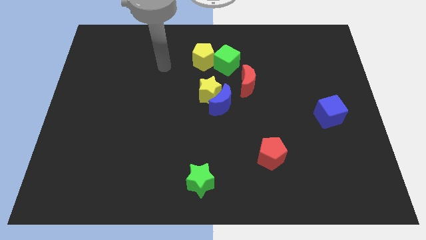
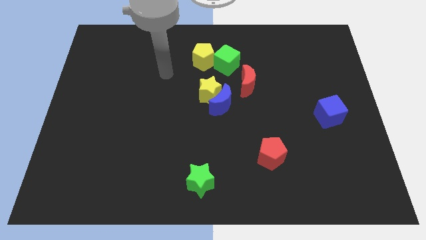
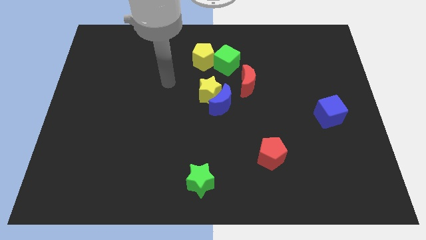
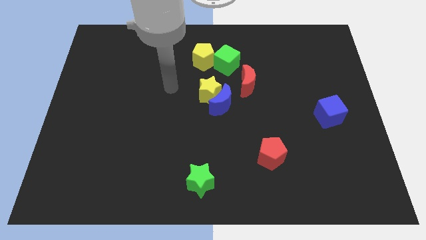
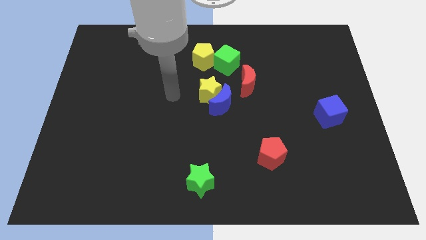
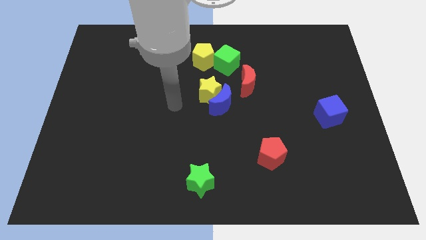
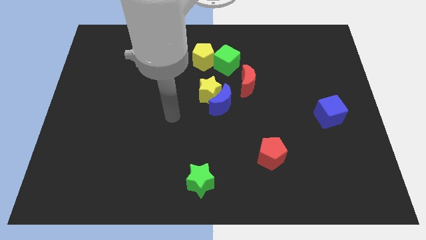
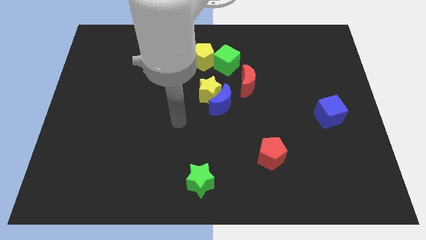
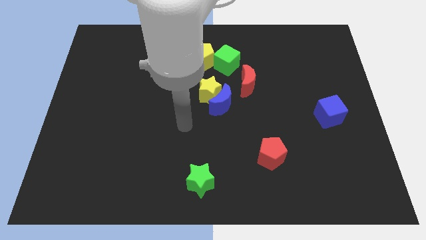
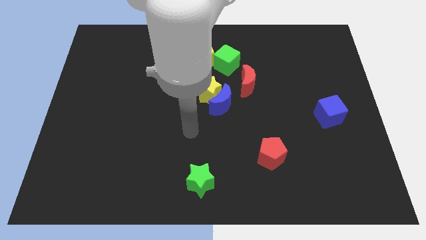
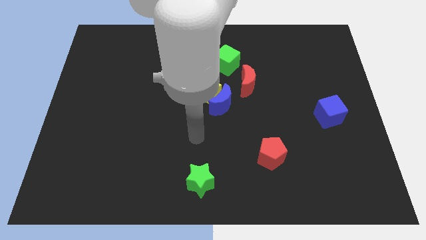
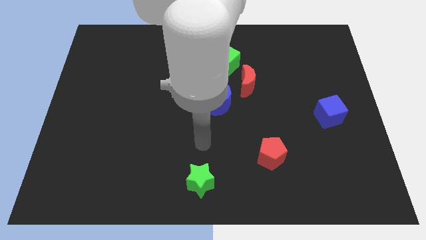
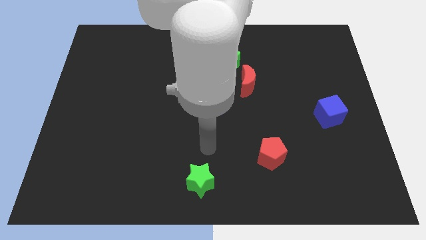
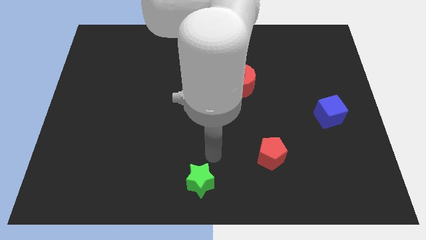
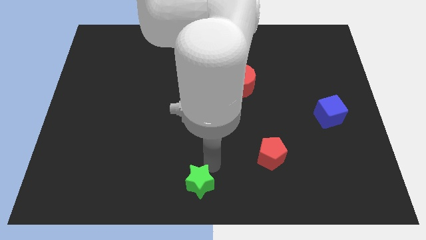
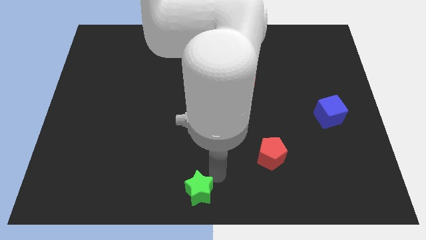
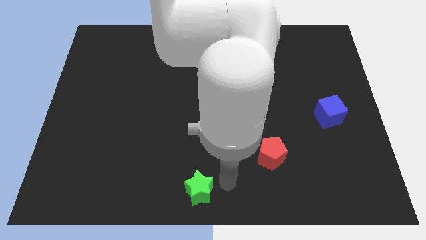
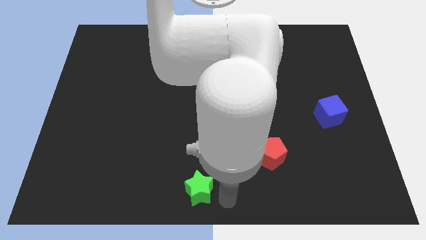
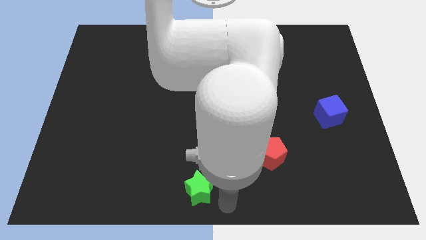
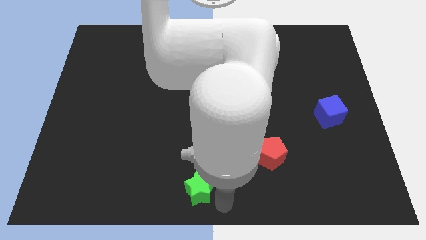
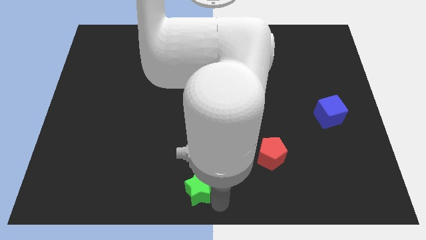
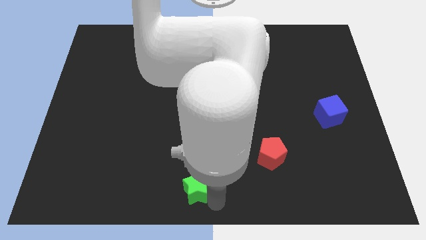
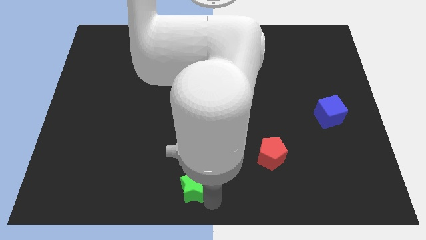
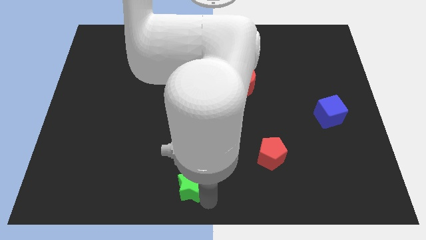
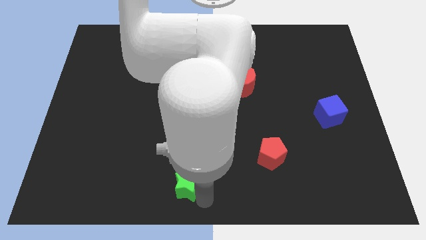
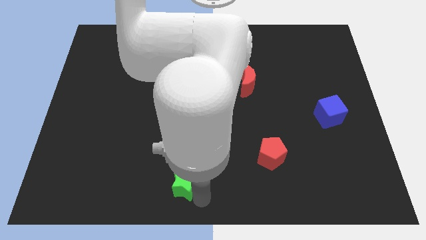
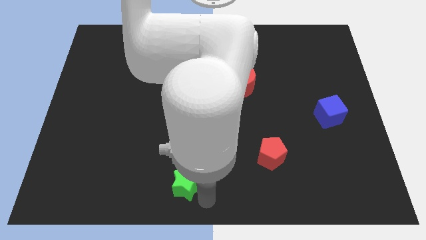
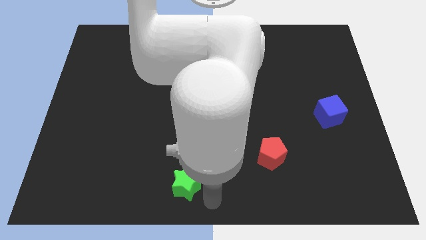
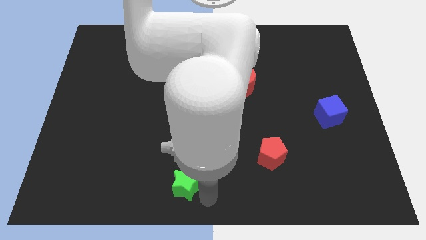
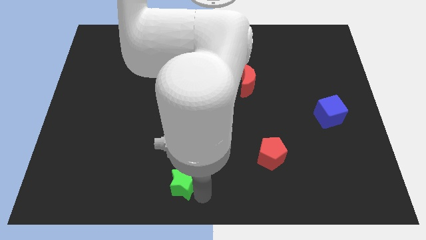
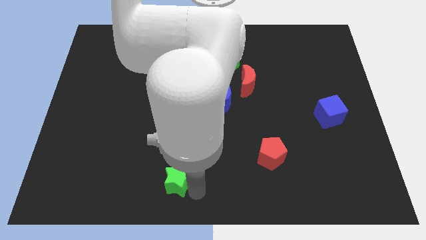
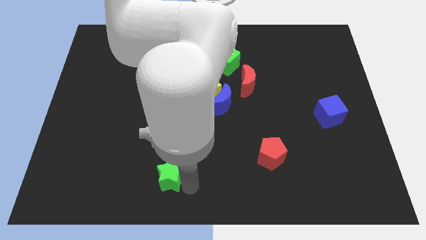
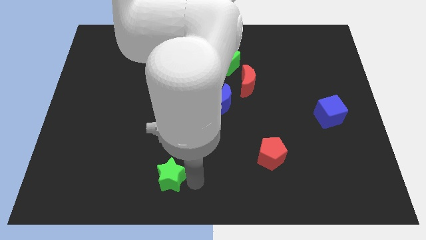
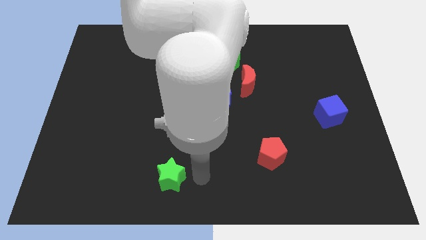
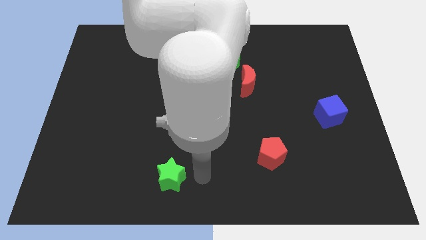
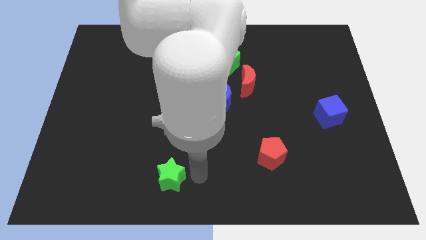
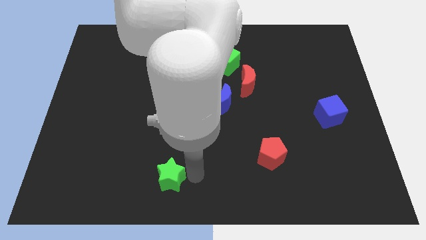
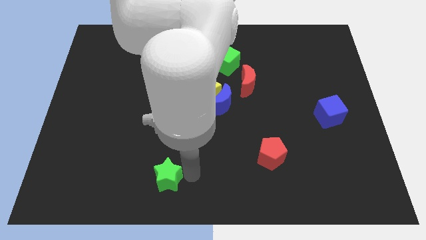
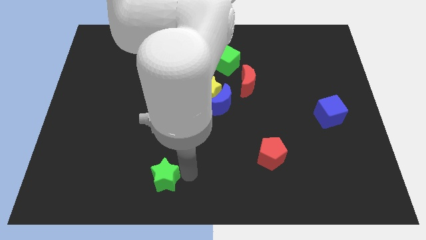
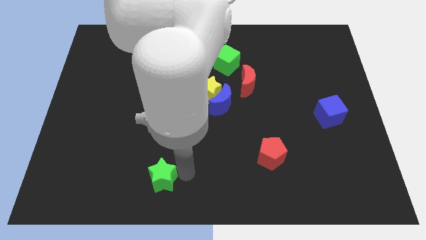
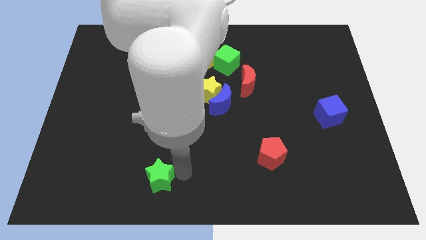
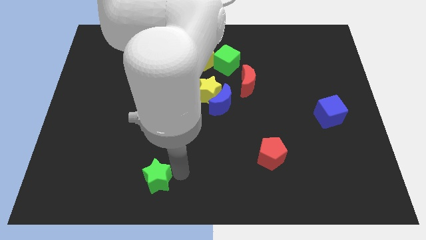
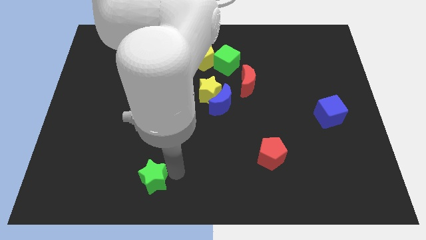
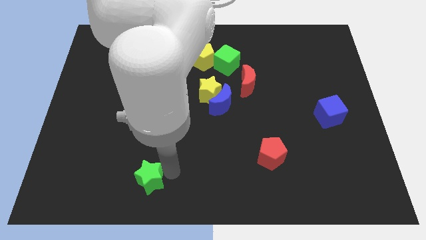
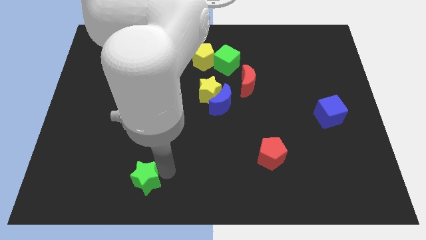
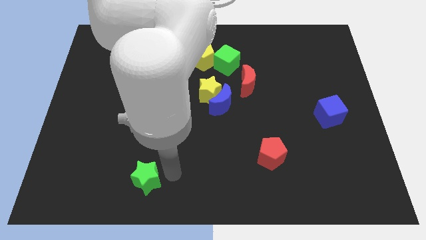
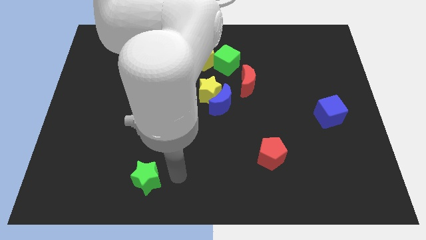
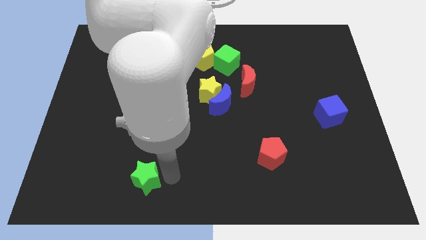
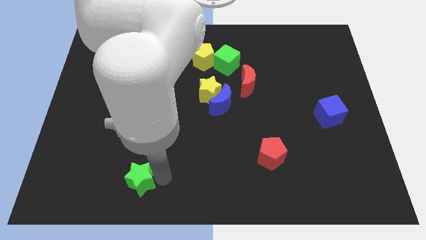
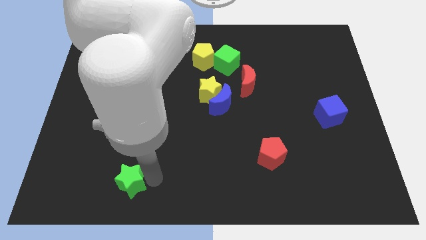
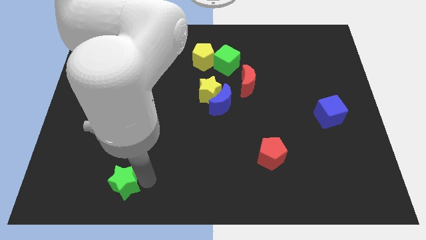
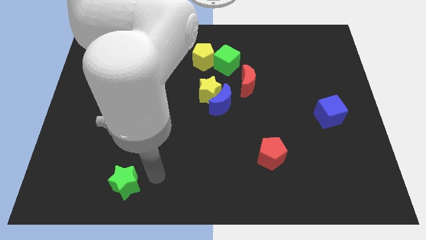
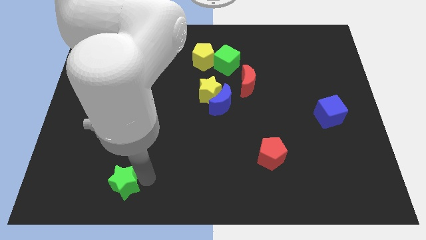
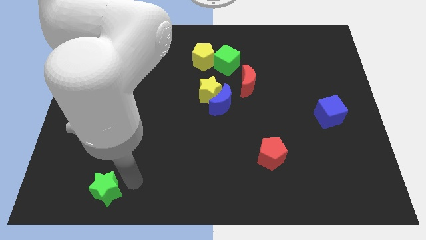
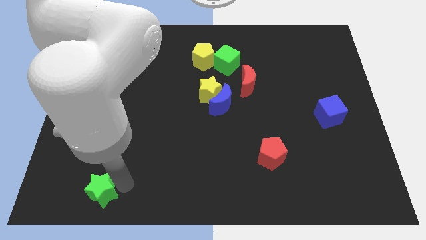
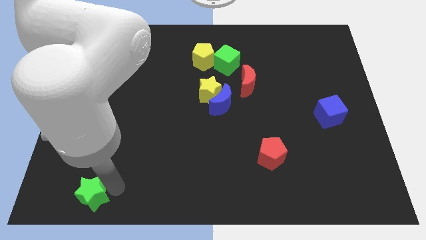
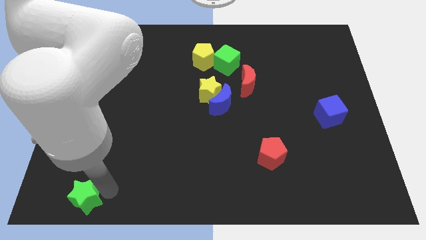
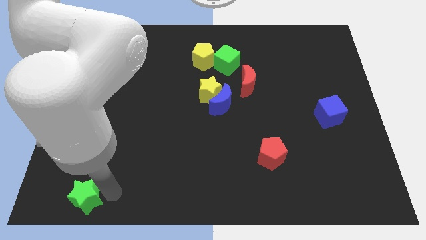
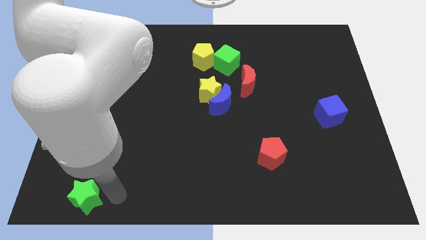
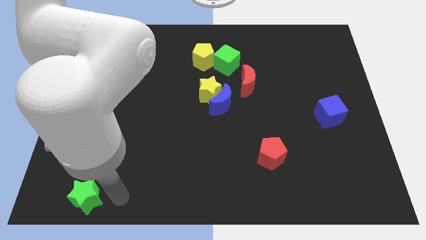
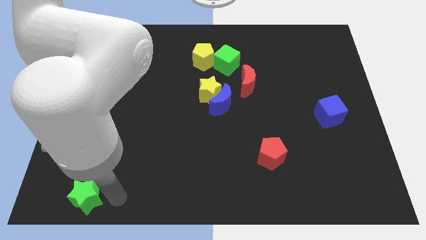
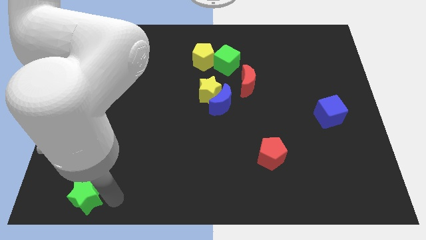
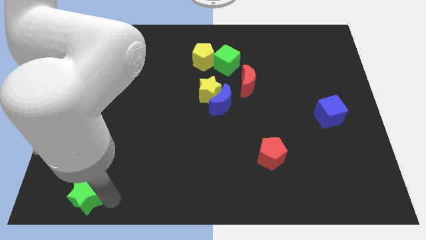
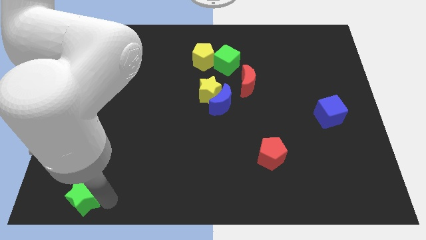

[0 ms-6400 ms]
move the green star to the bottom left
